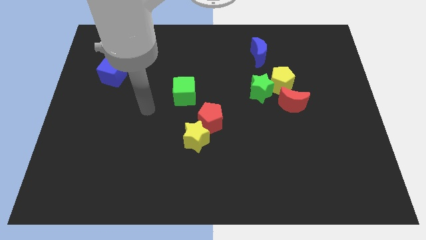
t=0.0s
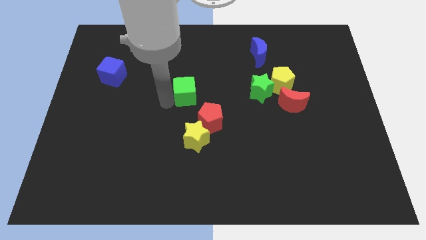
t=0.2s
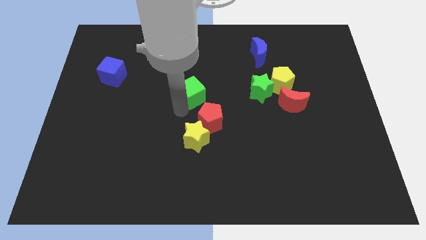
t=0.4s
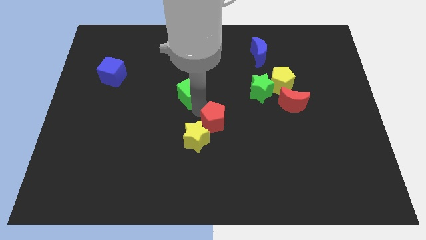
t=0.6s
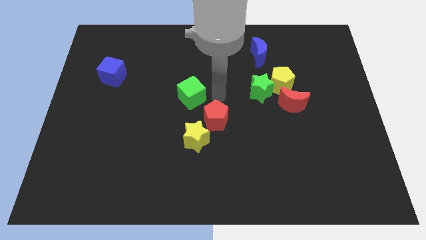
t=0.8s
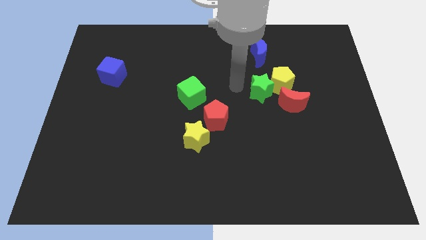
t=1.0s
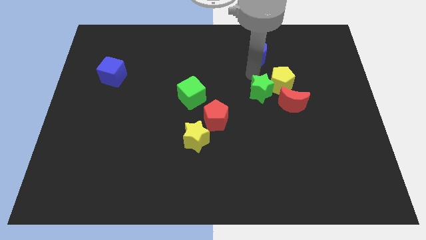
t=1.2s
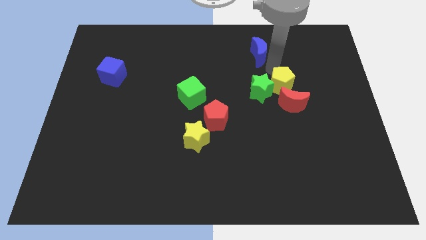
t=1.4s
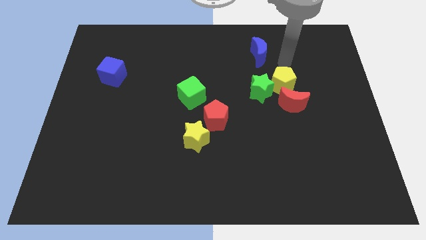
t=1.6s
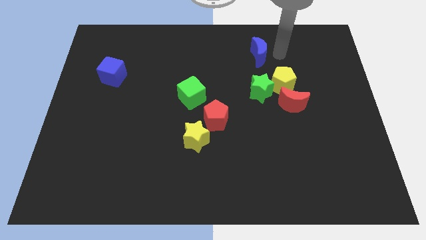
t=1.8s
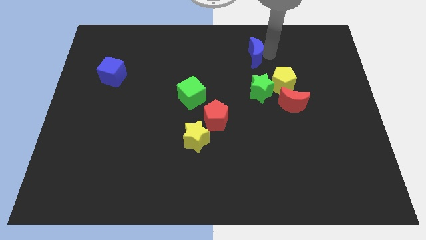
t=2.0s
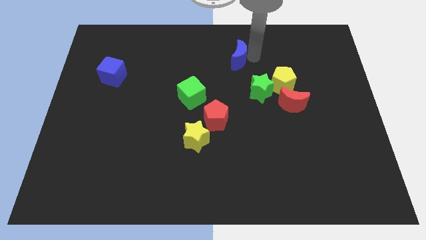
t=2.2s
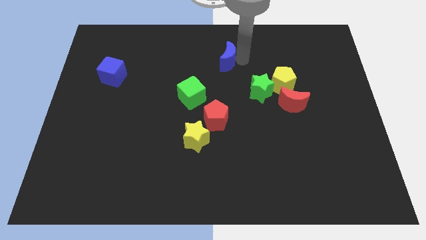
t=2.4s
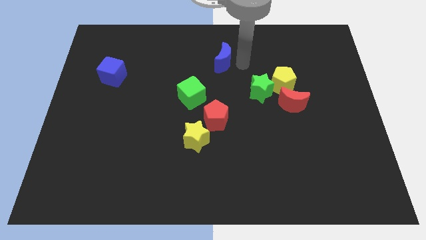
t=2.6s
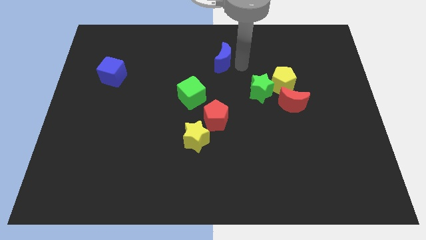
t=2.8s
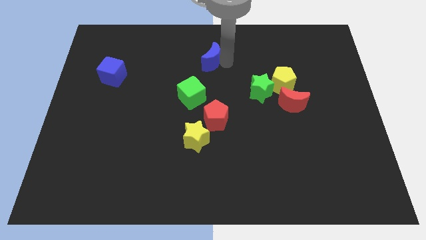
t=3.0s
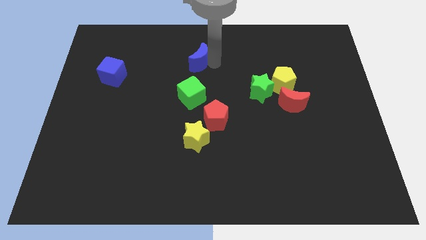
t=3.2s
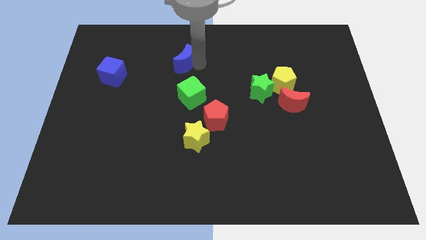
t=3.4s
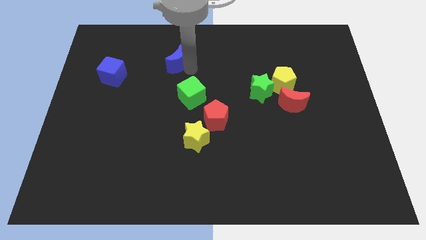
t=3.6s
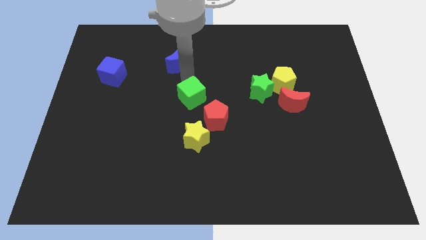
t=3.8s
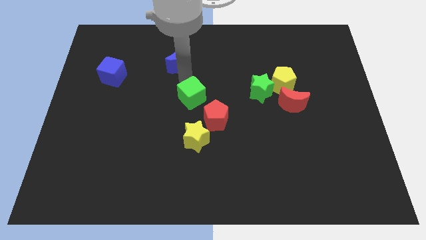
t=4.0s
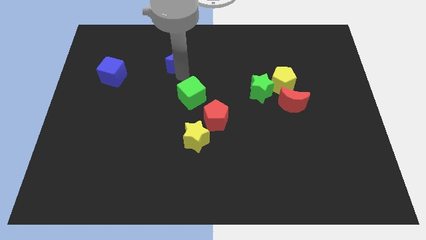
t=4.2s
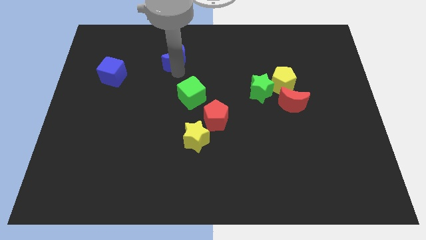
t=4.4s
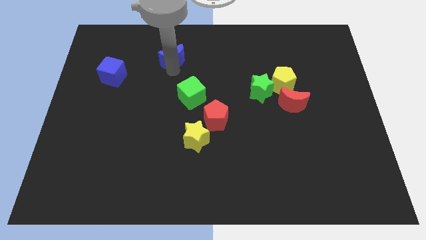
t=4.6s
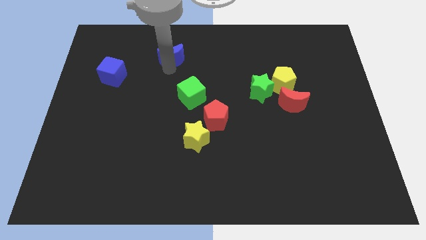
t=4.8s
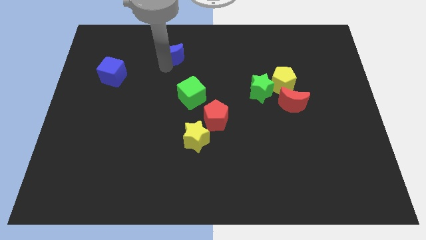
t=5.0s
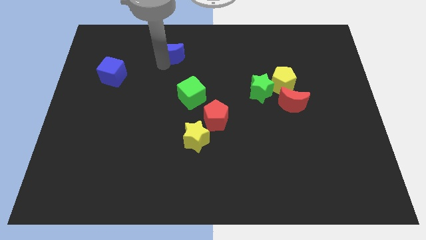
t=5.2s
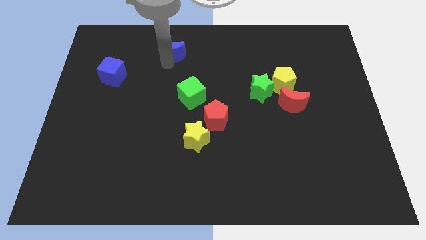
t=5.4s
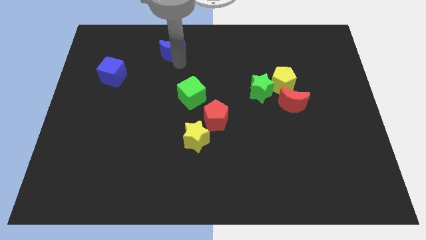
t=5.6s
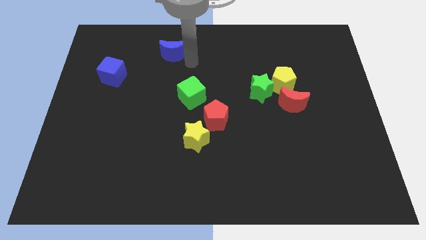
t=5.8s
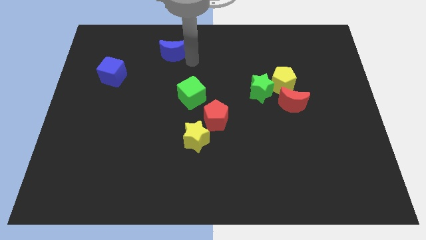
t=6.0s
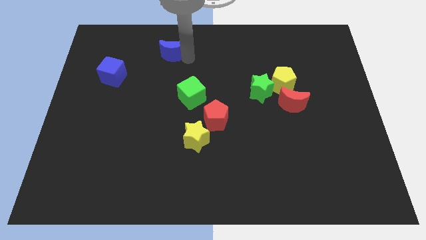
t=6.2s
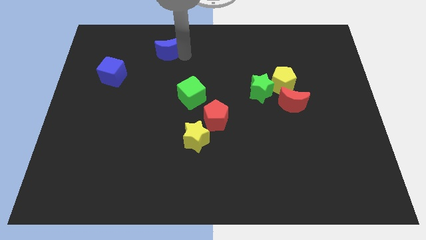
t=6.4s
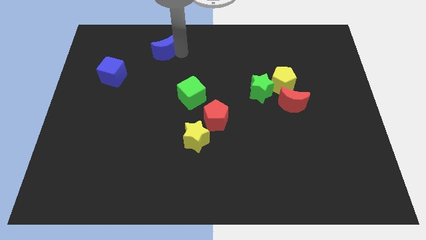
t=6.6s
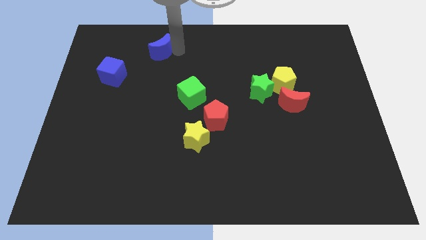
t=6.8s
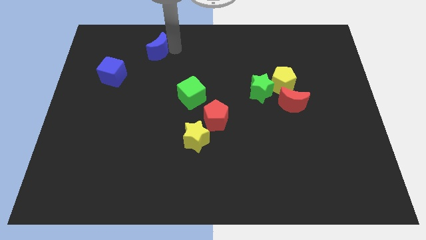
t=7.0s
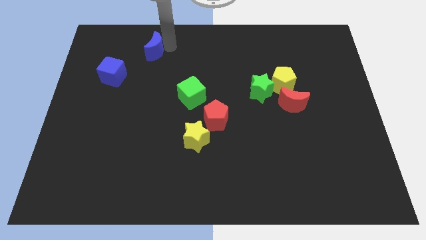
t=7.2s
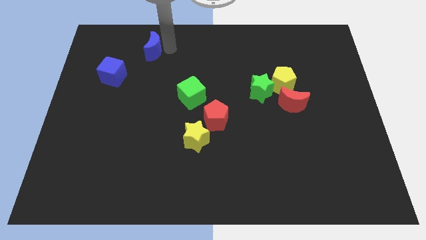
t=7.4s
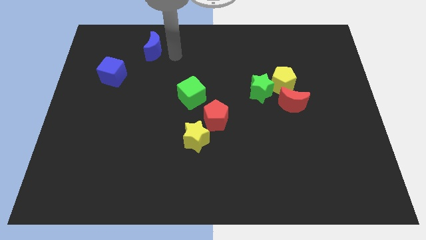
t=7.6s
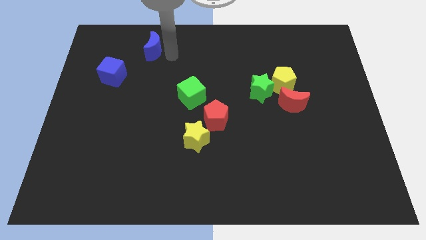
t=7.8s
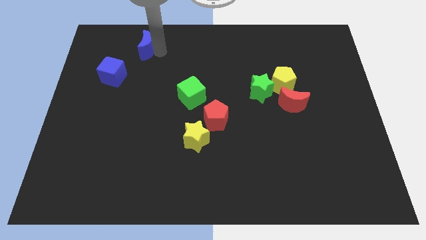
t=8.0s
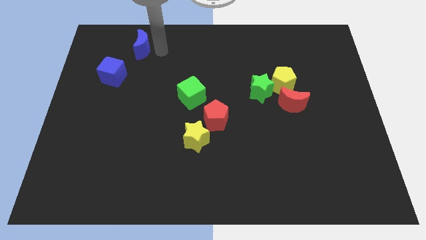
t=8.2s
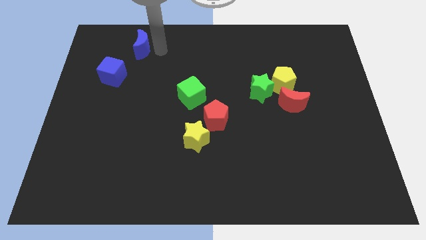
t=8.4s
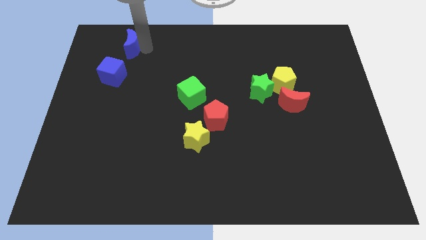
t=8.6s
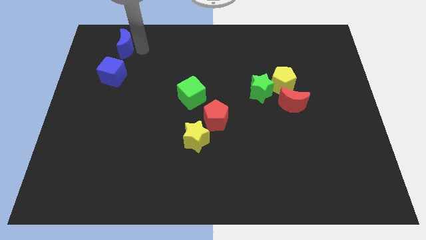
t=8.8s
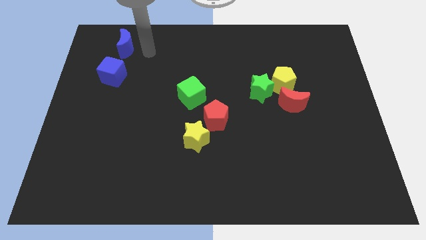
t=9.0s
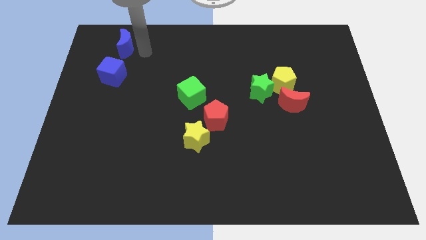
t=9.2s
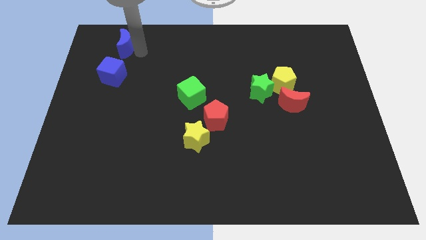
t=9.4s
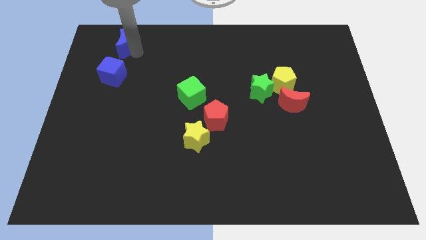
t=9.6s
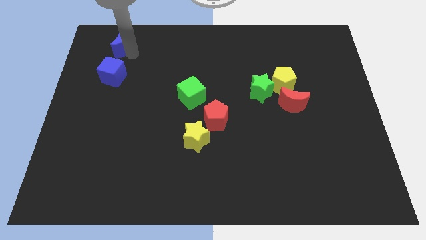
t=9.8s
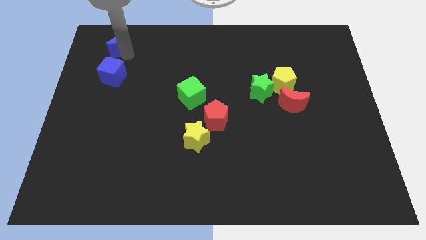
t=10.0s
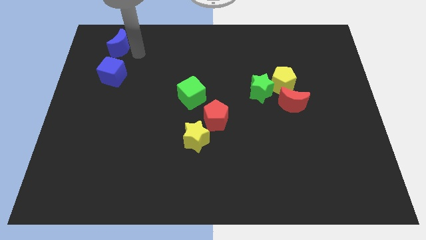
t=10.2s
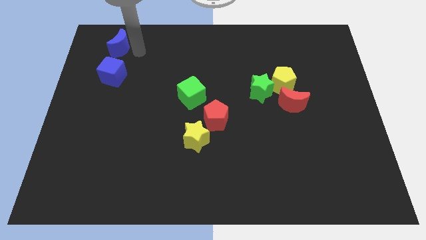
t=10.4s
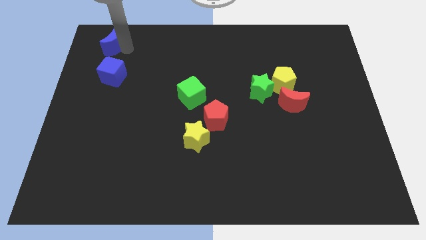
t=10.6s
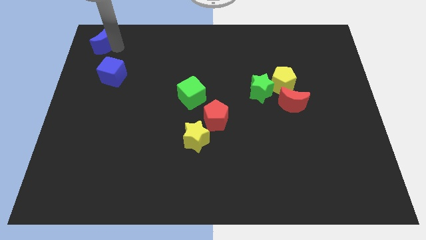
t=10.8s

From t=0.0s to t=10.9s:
push the blue moon to the top left of the board
